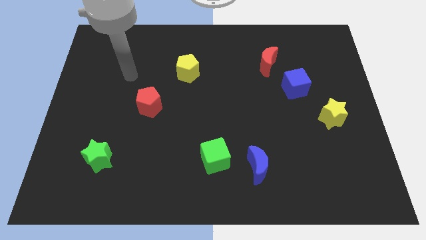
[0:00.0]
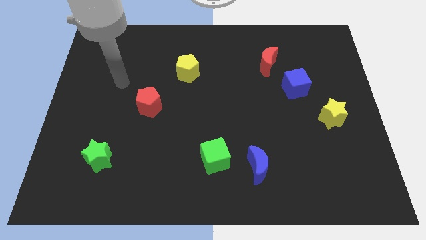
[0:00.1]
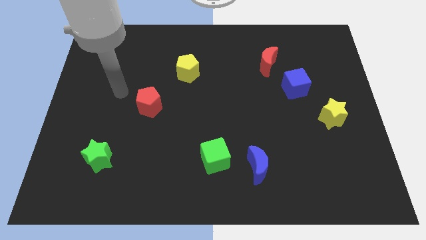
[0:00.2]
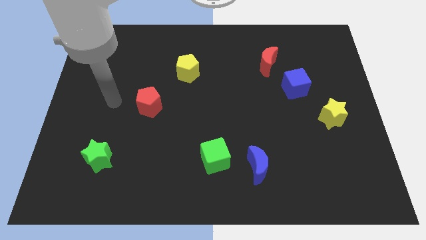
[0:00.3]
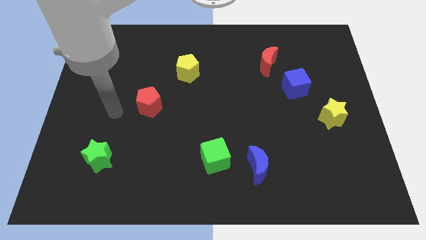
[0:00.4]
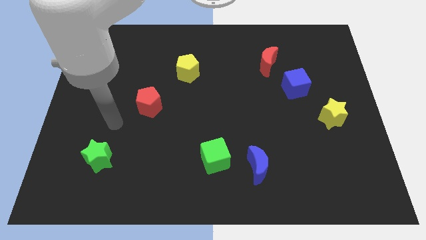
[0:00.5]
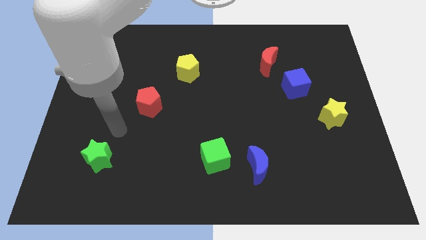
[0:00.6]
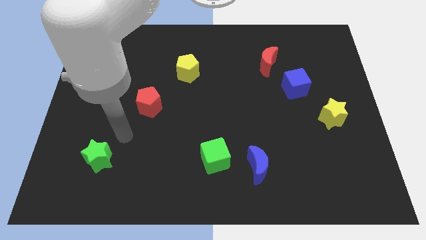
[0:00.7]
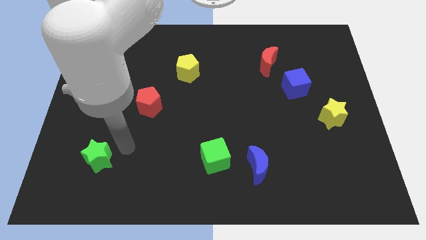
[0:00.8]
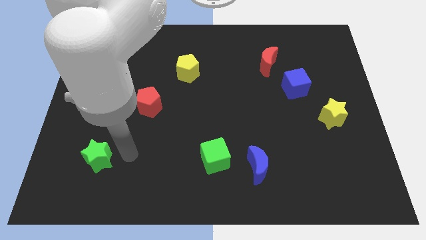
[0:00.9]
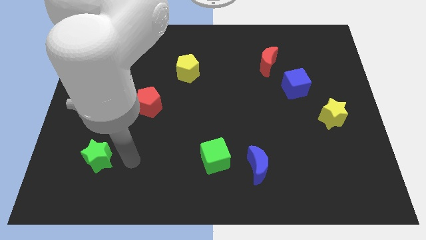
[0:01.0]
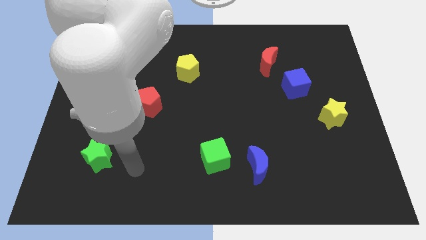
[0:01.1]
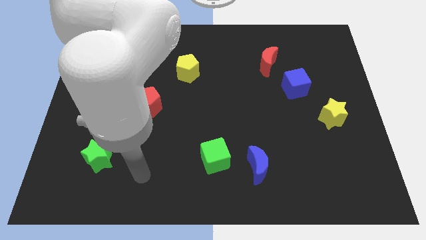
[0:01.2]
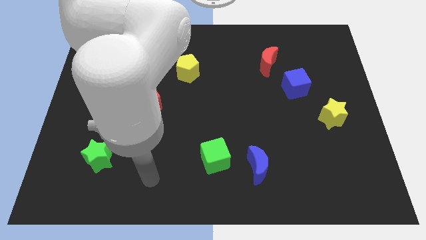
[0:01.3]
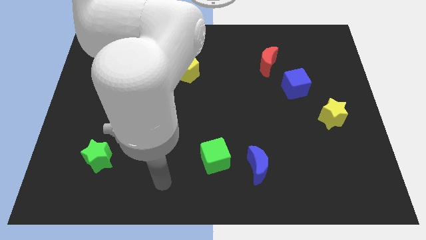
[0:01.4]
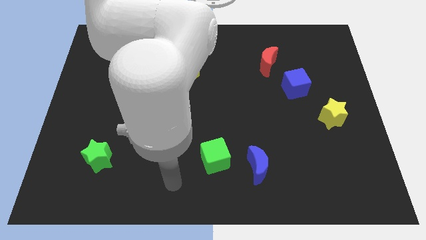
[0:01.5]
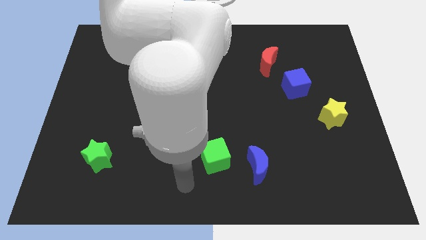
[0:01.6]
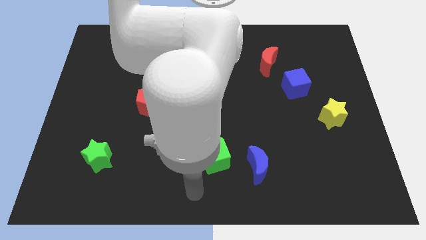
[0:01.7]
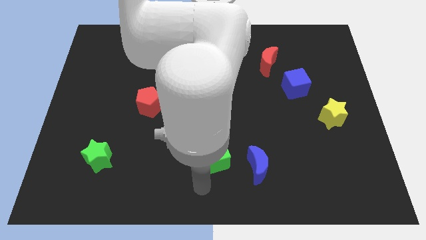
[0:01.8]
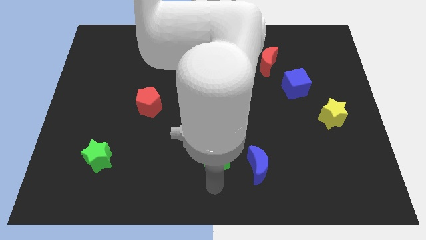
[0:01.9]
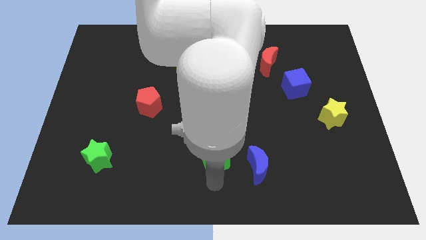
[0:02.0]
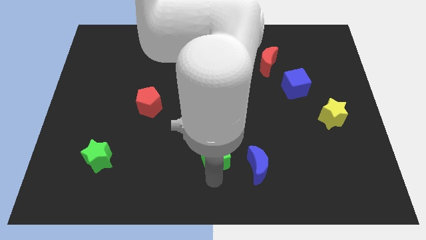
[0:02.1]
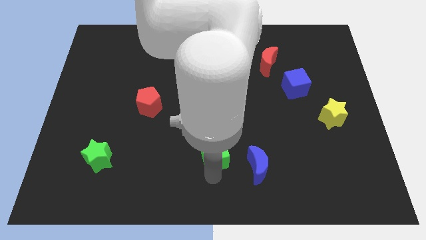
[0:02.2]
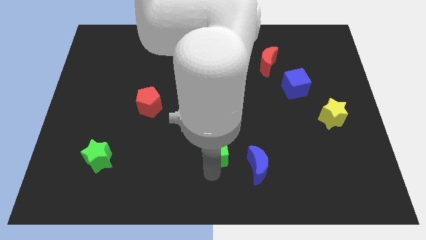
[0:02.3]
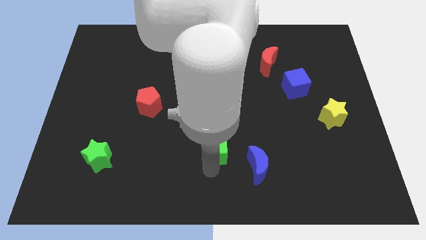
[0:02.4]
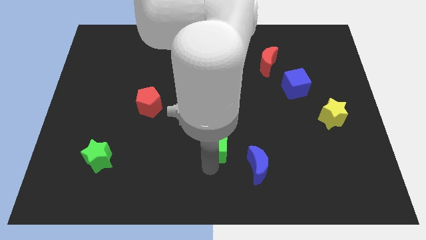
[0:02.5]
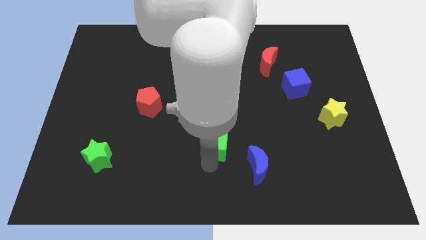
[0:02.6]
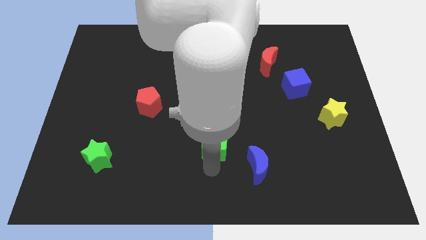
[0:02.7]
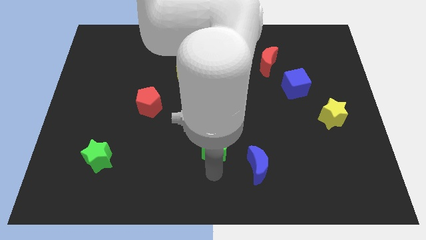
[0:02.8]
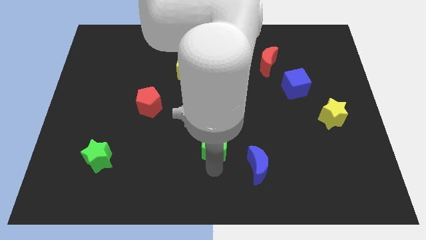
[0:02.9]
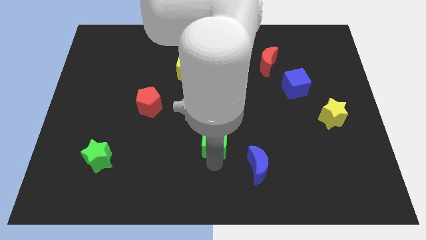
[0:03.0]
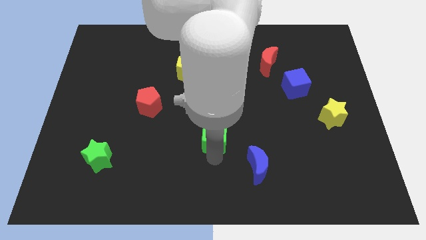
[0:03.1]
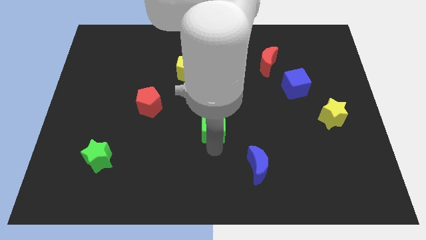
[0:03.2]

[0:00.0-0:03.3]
push the green cube somewhat upwards

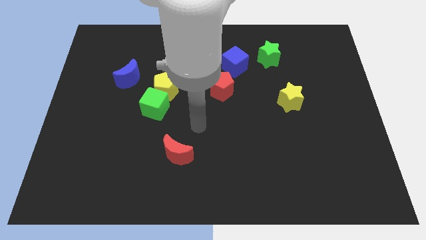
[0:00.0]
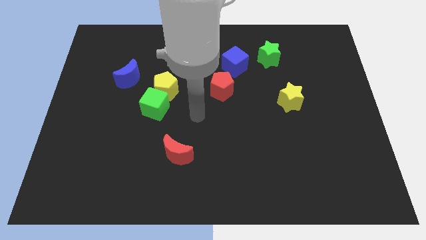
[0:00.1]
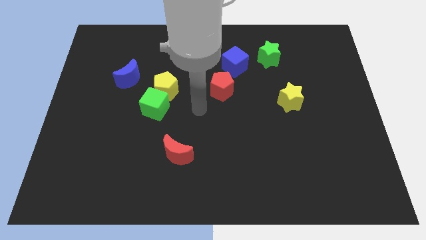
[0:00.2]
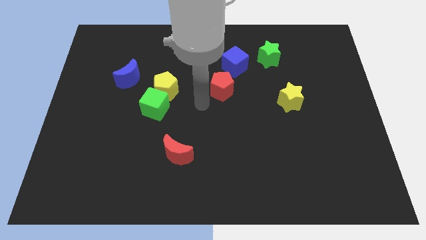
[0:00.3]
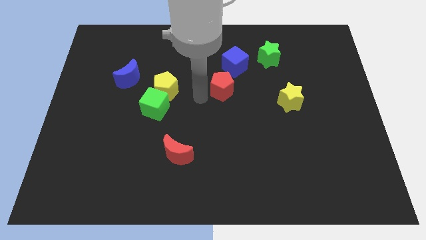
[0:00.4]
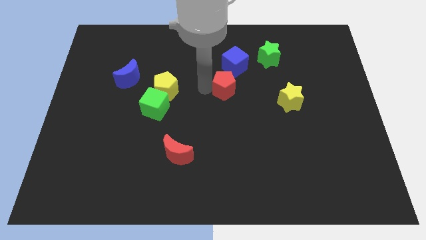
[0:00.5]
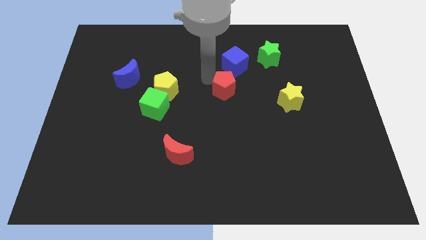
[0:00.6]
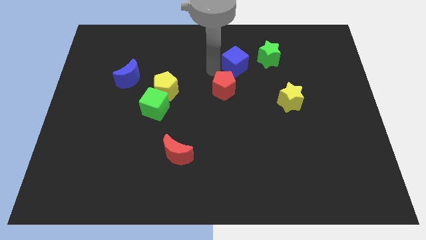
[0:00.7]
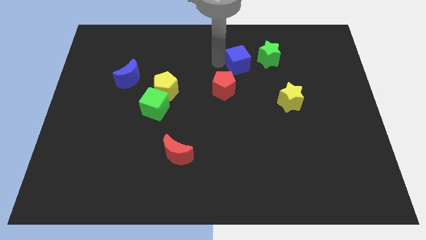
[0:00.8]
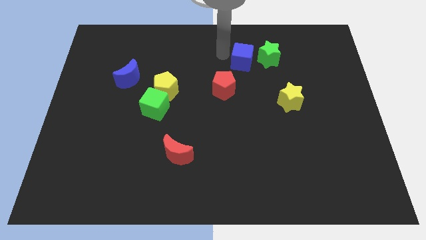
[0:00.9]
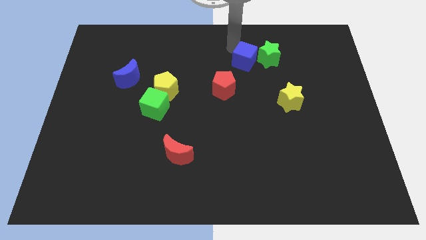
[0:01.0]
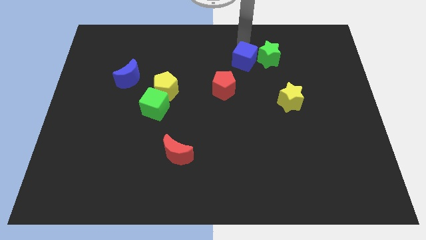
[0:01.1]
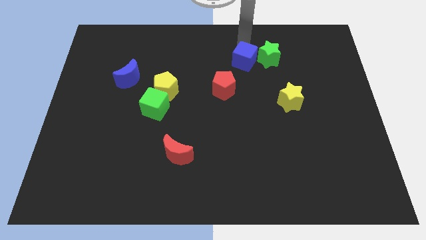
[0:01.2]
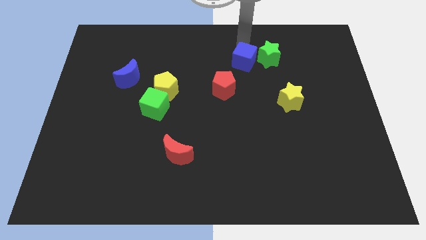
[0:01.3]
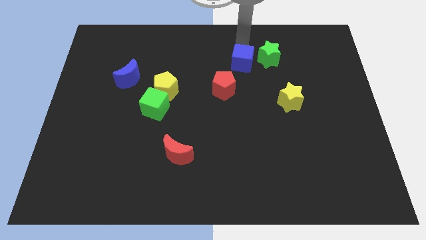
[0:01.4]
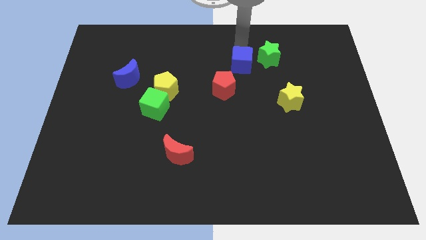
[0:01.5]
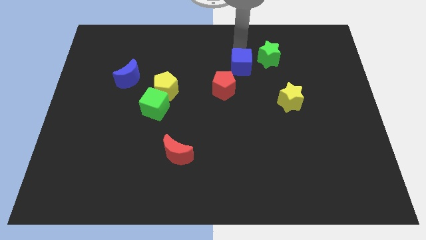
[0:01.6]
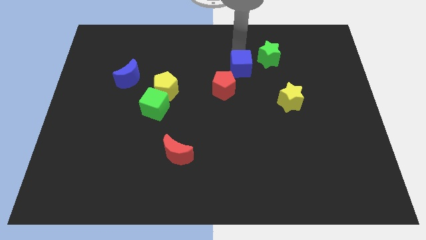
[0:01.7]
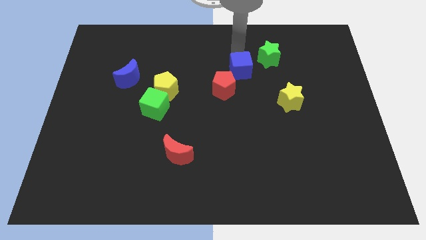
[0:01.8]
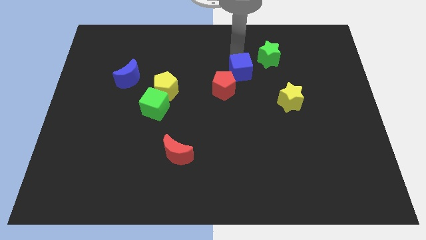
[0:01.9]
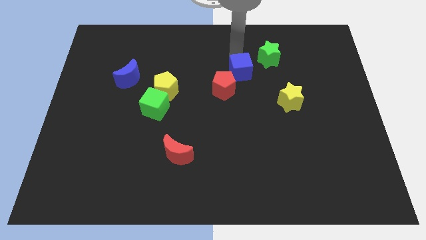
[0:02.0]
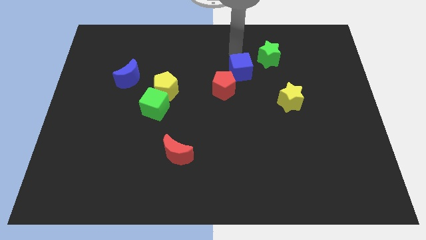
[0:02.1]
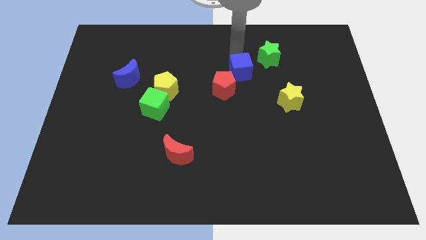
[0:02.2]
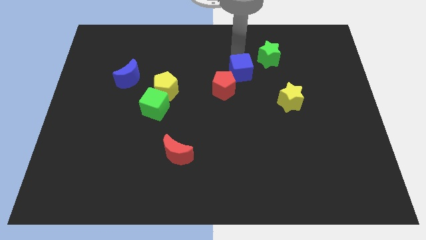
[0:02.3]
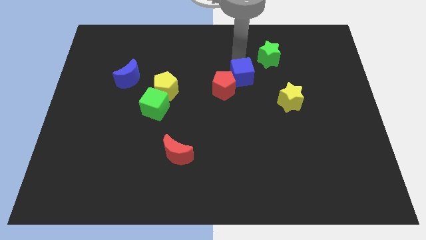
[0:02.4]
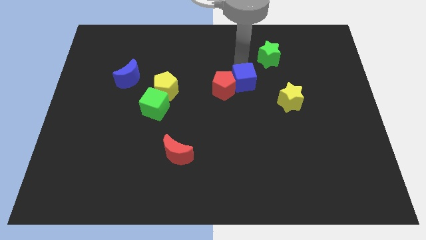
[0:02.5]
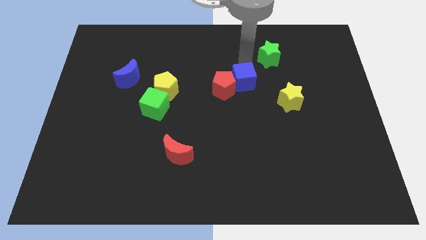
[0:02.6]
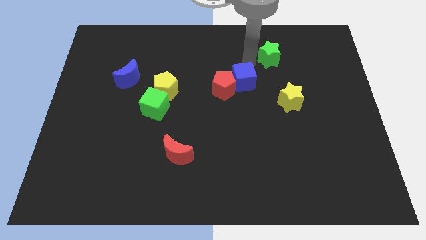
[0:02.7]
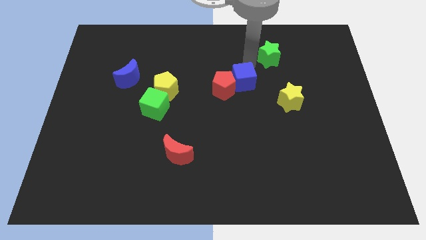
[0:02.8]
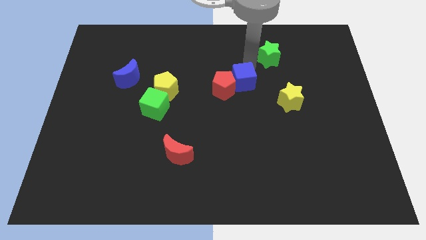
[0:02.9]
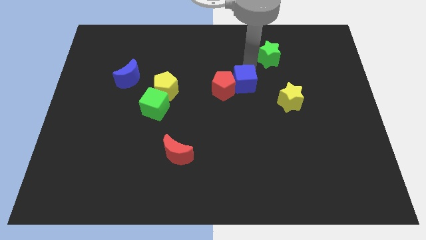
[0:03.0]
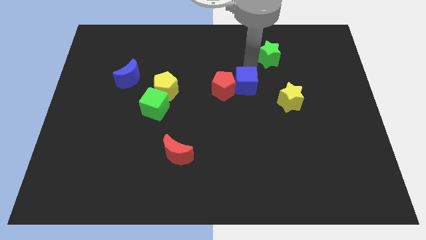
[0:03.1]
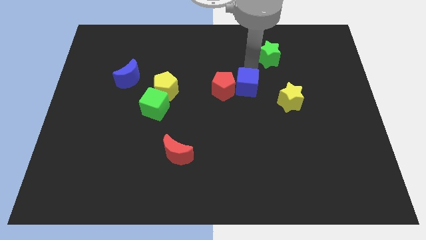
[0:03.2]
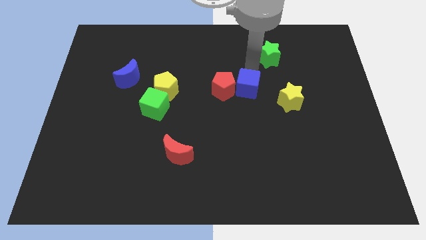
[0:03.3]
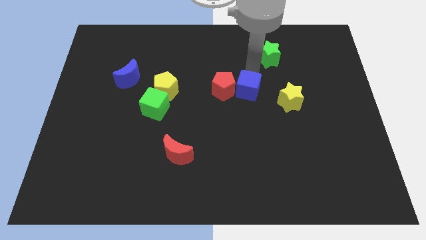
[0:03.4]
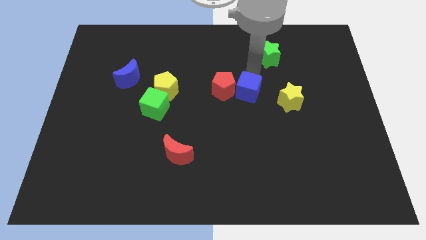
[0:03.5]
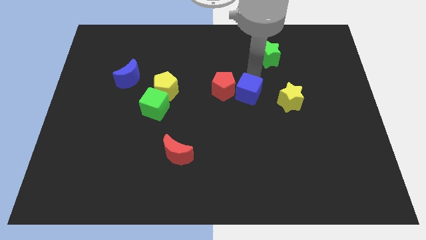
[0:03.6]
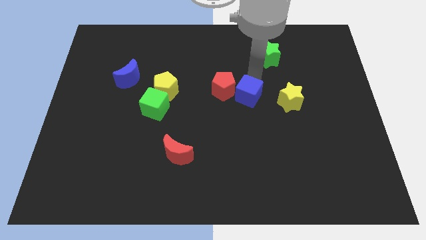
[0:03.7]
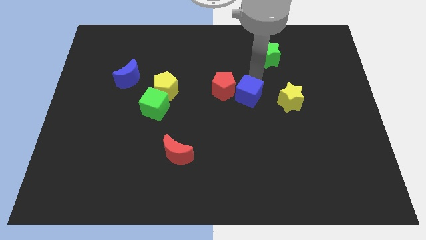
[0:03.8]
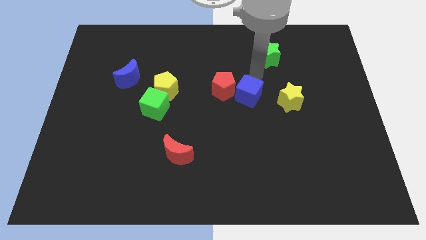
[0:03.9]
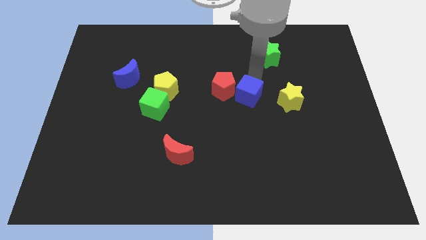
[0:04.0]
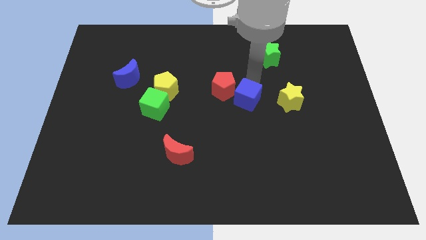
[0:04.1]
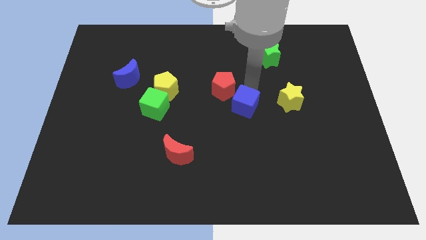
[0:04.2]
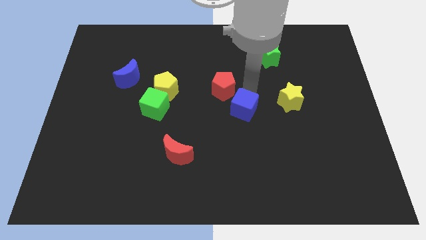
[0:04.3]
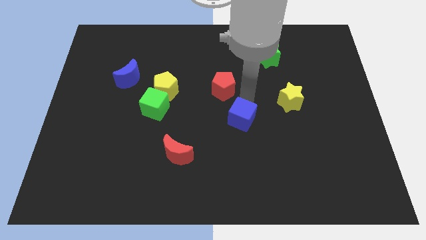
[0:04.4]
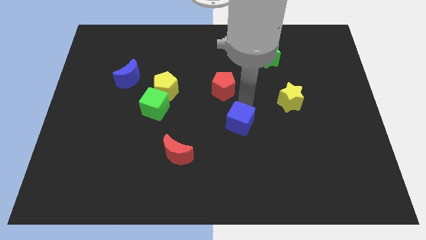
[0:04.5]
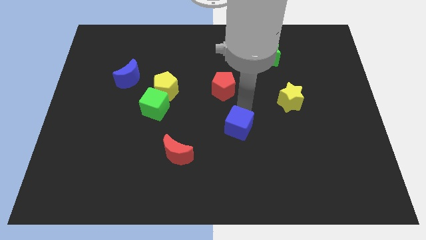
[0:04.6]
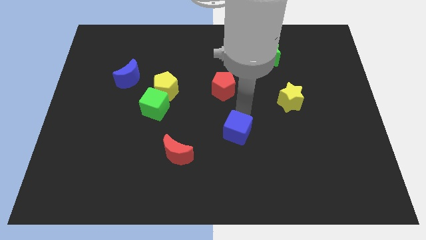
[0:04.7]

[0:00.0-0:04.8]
slide the blue cube downwards

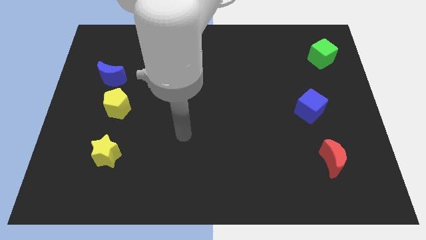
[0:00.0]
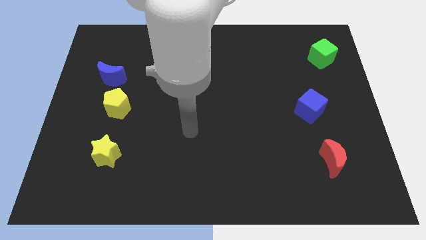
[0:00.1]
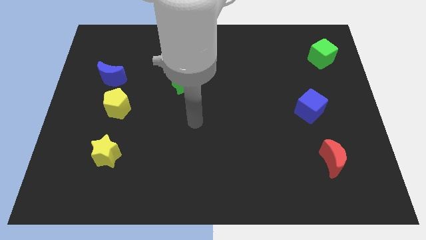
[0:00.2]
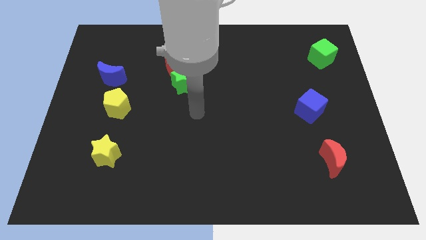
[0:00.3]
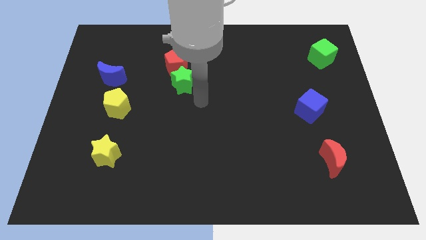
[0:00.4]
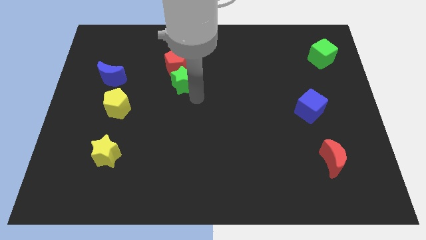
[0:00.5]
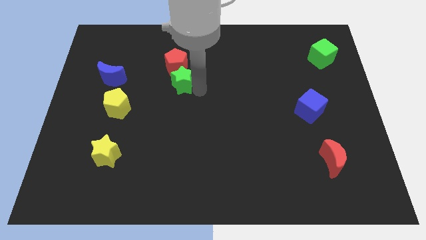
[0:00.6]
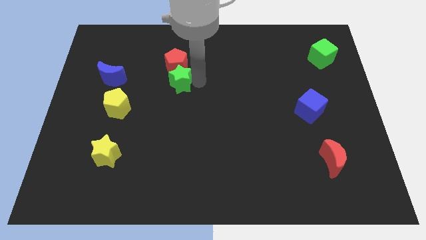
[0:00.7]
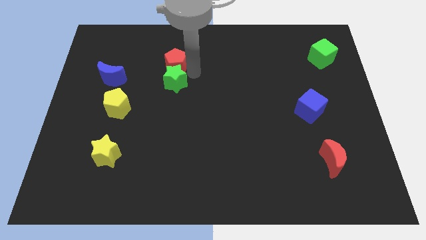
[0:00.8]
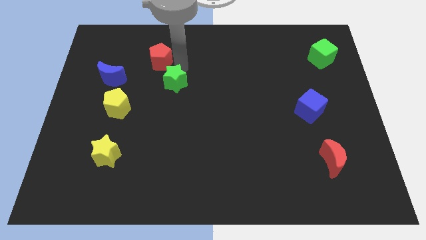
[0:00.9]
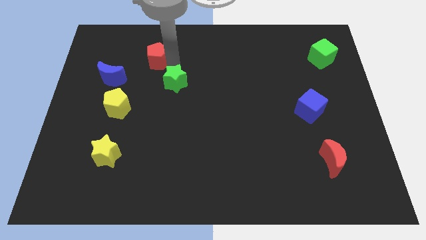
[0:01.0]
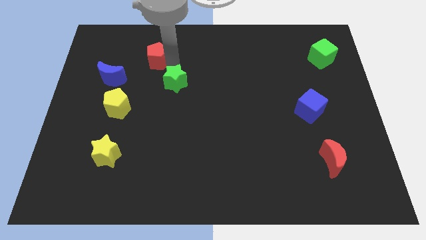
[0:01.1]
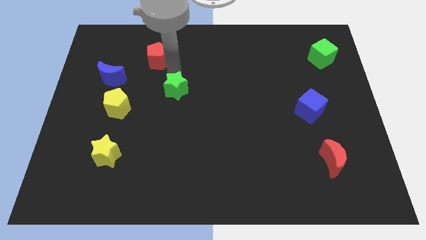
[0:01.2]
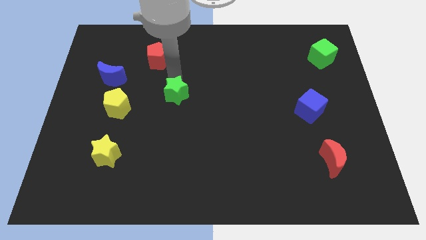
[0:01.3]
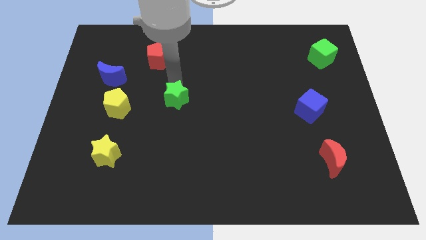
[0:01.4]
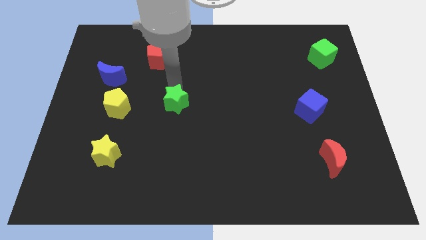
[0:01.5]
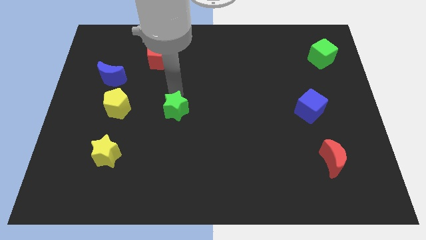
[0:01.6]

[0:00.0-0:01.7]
move the green star down a bit
